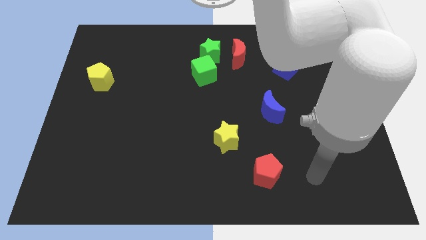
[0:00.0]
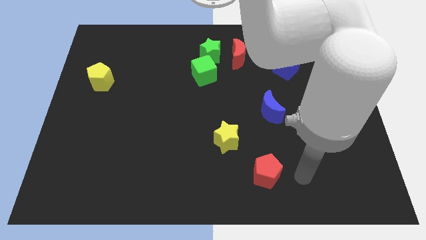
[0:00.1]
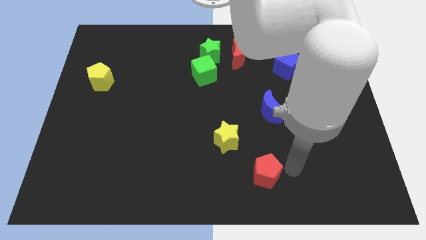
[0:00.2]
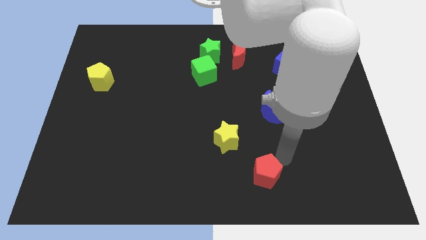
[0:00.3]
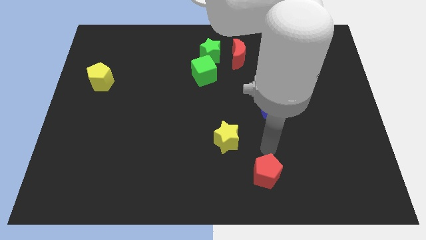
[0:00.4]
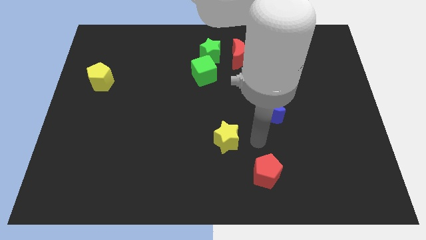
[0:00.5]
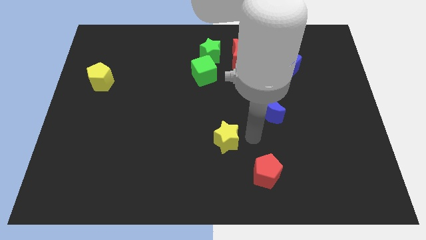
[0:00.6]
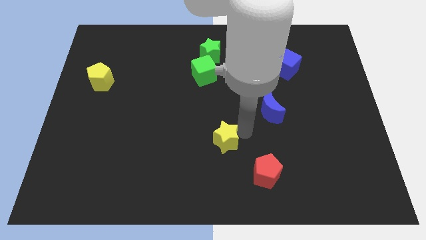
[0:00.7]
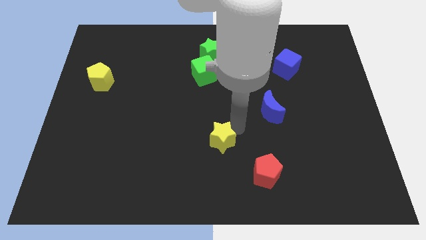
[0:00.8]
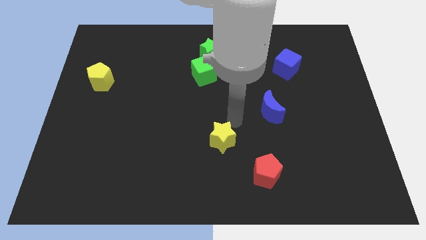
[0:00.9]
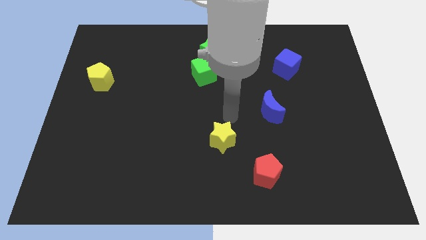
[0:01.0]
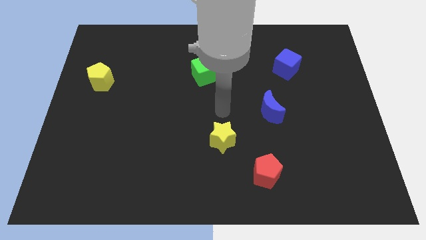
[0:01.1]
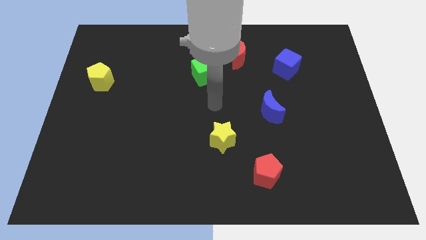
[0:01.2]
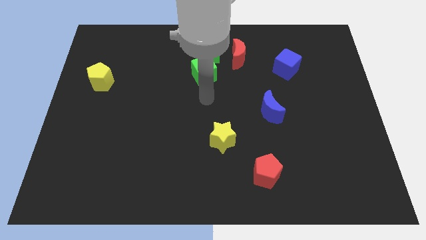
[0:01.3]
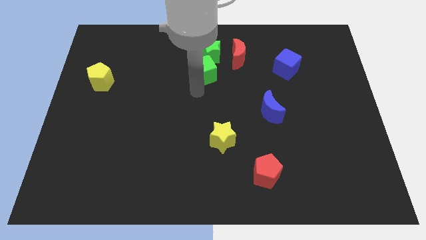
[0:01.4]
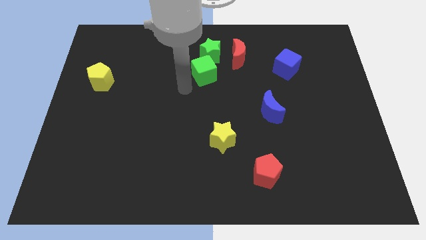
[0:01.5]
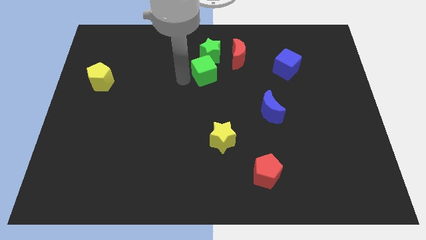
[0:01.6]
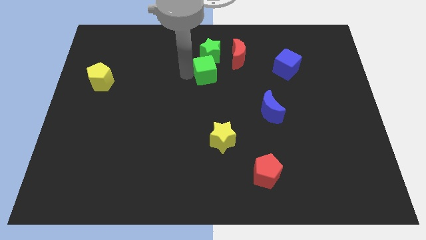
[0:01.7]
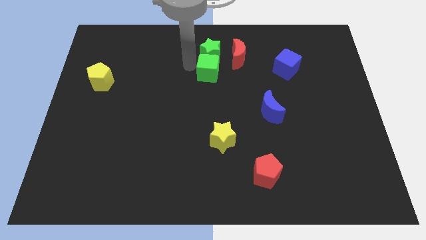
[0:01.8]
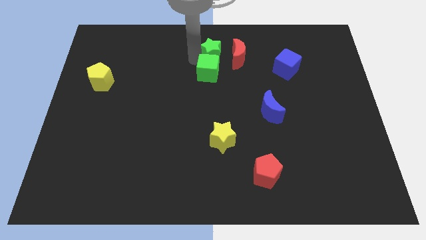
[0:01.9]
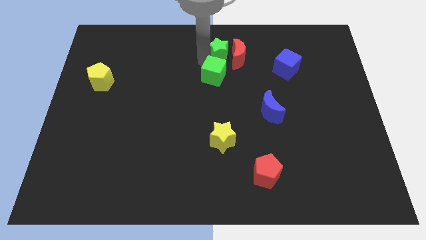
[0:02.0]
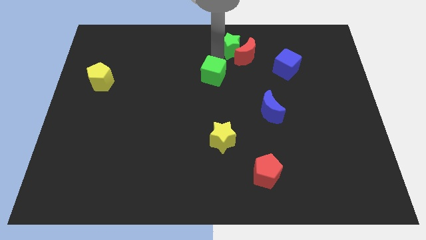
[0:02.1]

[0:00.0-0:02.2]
move the green cube away from the green star

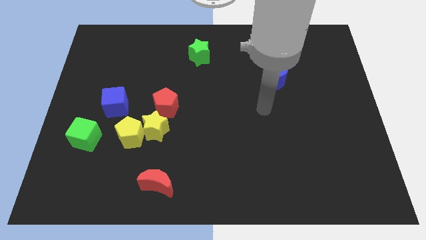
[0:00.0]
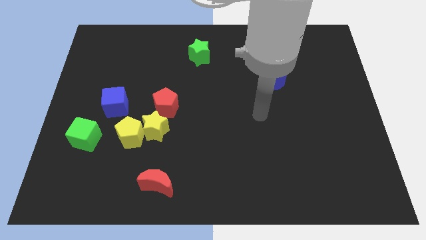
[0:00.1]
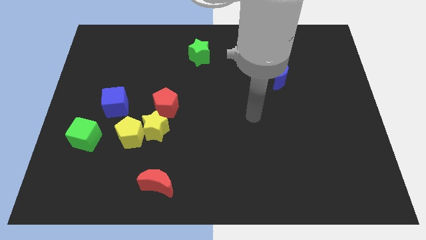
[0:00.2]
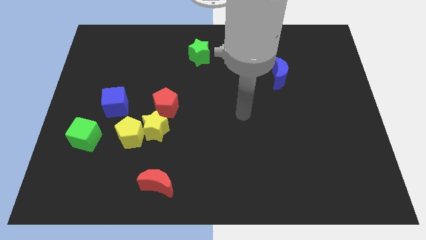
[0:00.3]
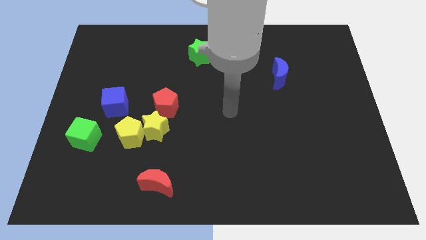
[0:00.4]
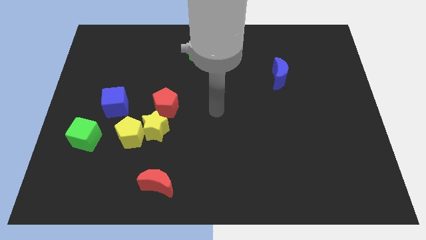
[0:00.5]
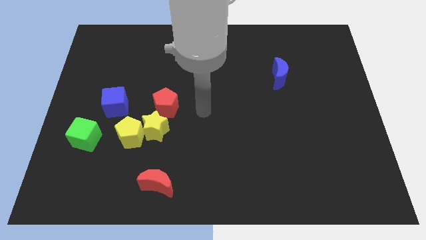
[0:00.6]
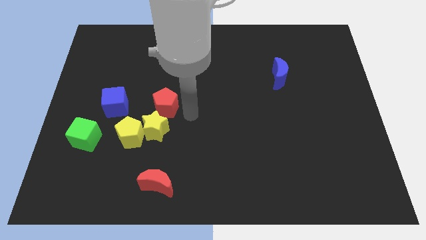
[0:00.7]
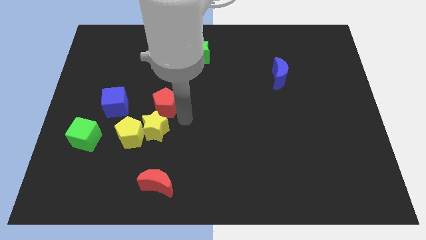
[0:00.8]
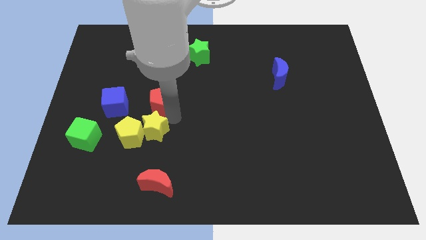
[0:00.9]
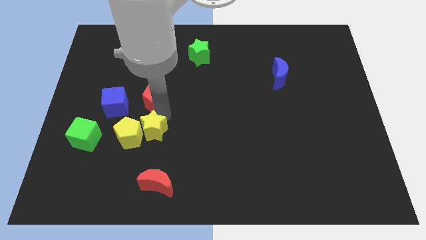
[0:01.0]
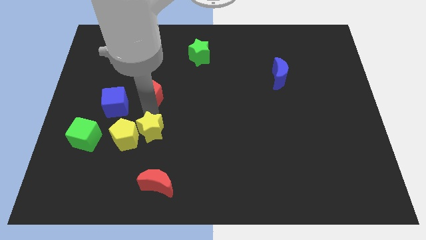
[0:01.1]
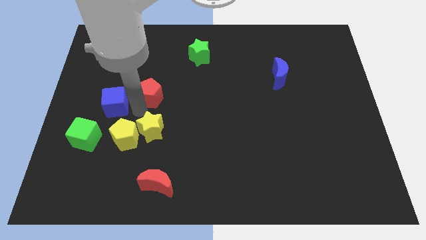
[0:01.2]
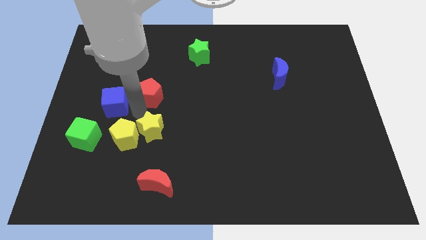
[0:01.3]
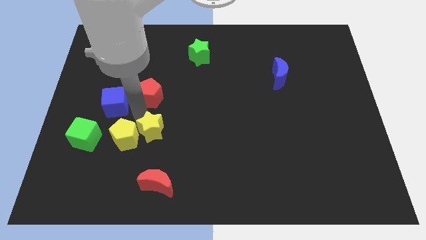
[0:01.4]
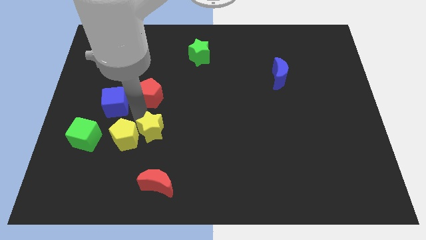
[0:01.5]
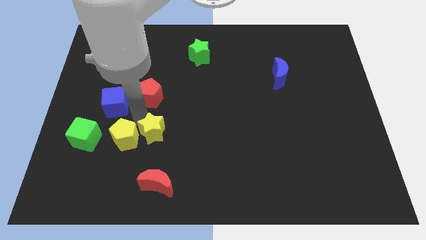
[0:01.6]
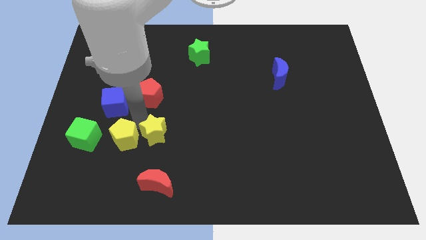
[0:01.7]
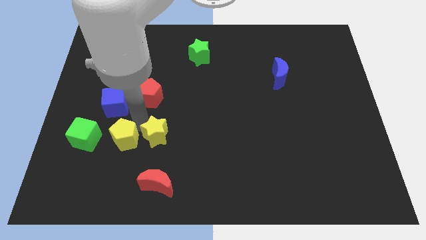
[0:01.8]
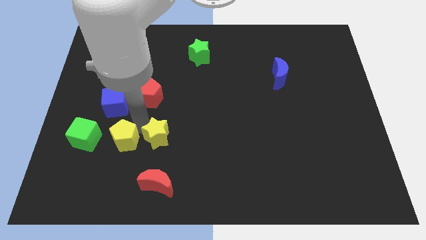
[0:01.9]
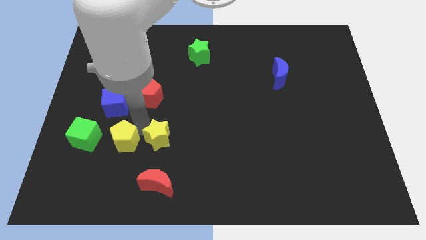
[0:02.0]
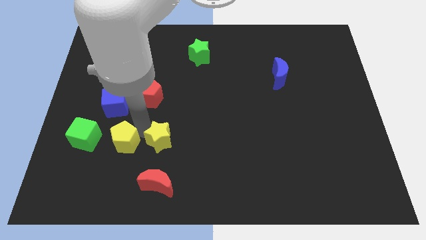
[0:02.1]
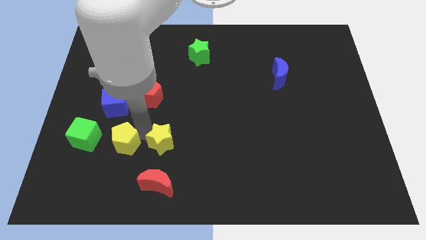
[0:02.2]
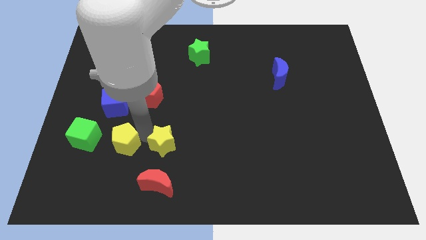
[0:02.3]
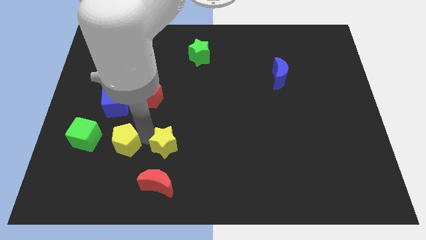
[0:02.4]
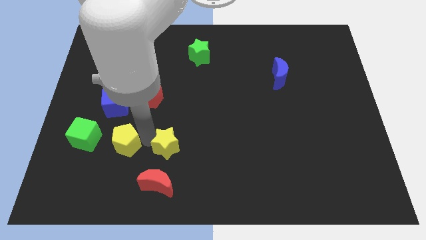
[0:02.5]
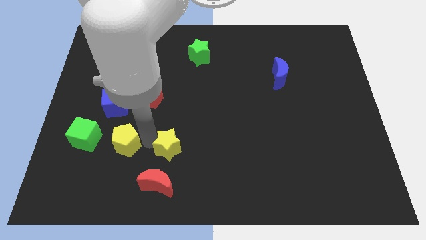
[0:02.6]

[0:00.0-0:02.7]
separate the yellow star from the yellow pentagon and red pentagon

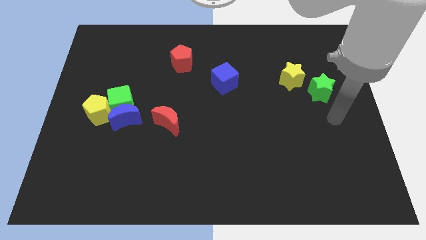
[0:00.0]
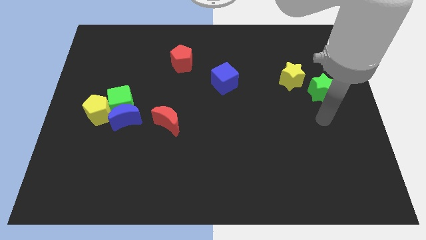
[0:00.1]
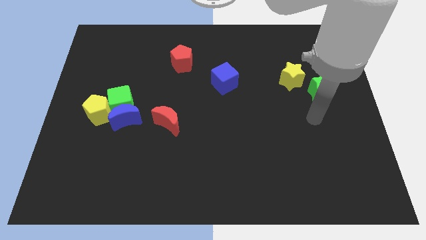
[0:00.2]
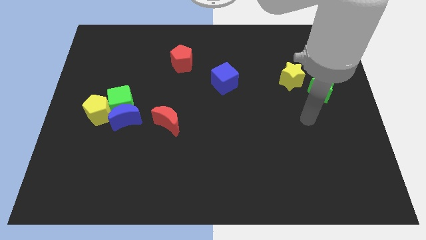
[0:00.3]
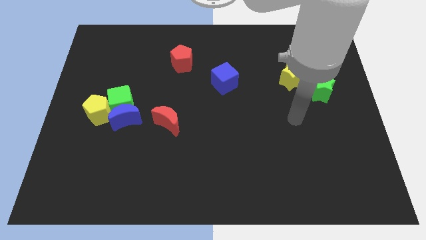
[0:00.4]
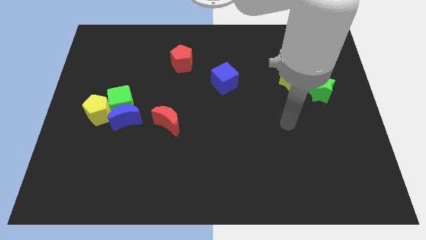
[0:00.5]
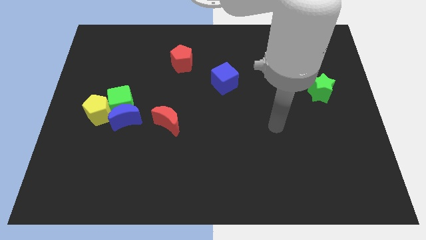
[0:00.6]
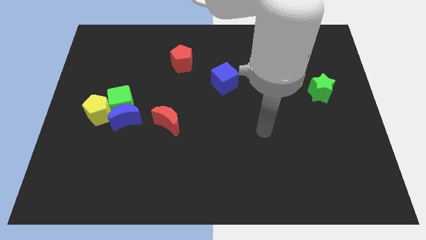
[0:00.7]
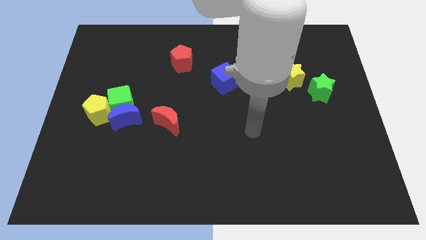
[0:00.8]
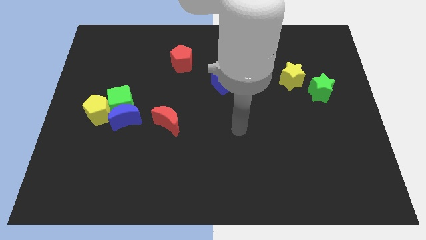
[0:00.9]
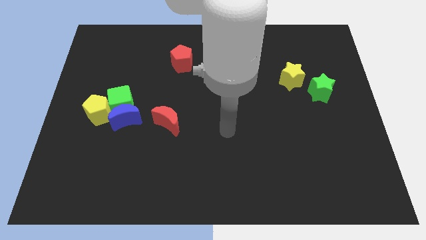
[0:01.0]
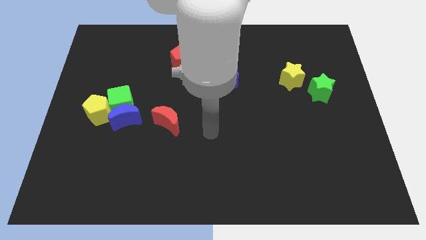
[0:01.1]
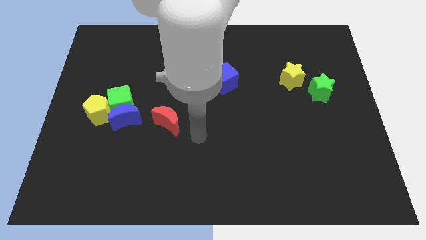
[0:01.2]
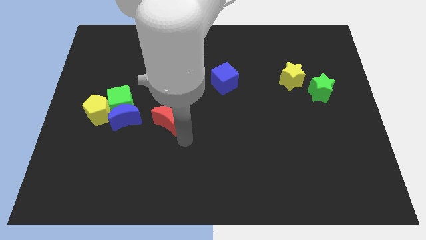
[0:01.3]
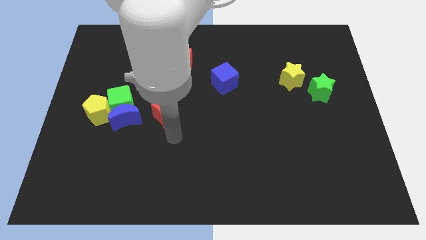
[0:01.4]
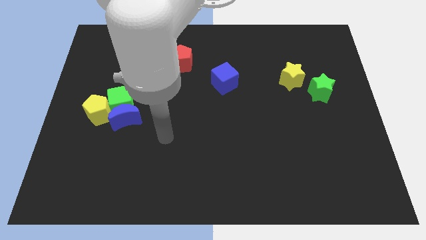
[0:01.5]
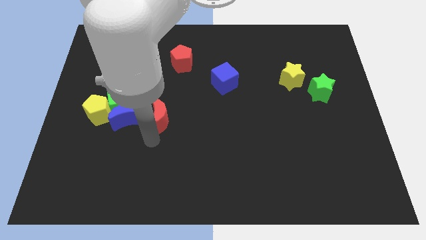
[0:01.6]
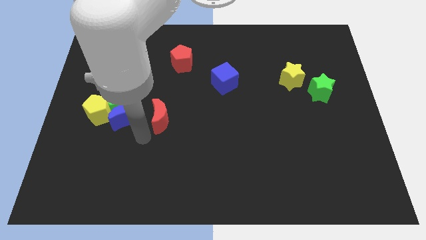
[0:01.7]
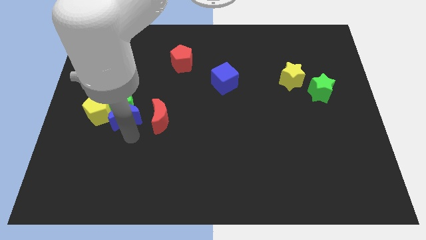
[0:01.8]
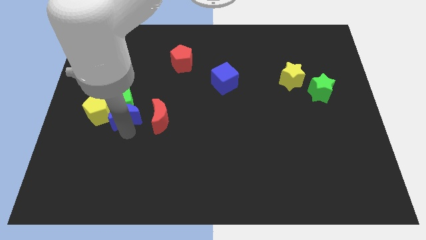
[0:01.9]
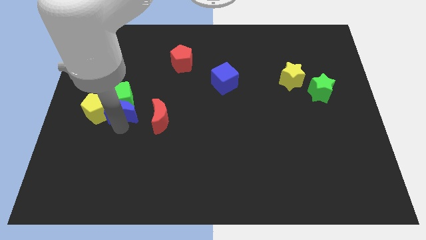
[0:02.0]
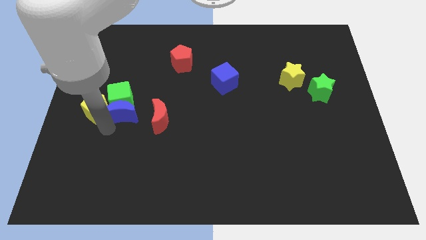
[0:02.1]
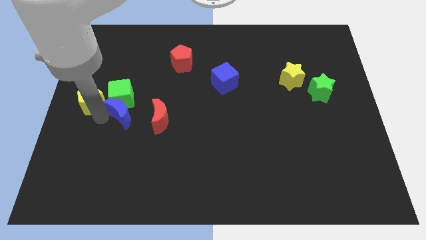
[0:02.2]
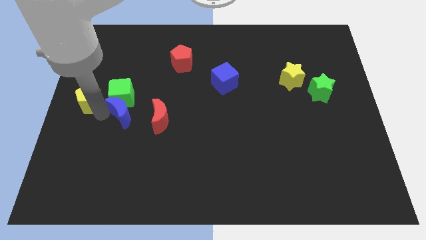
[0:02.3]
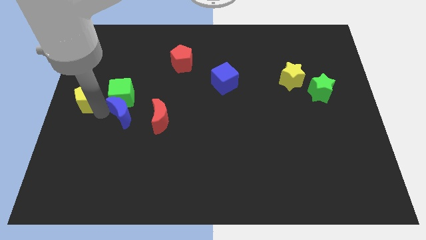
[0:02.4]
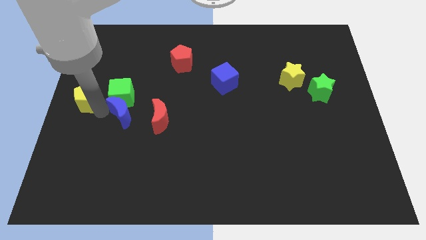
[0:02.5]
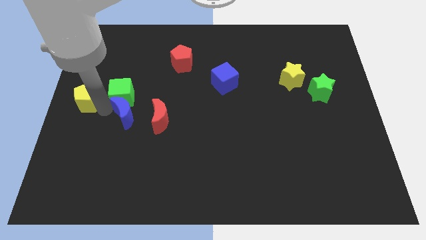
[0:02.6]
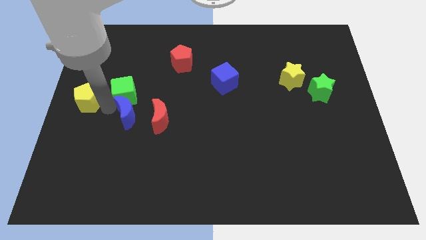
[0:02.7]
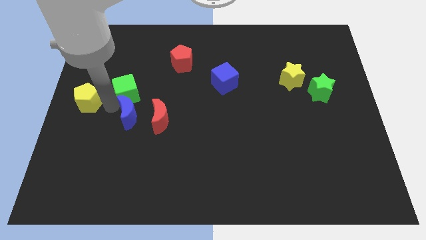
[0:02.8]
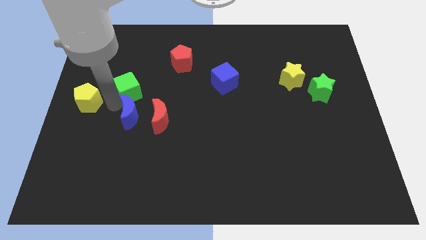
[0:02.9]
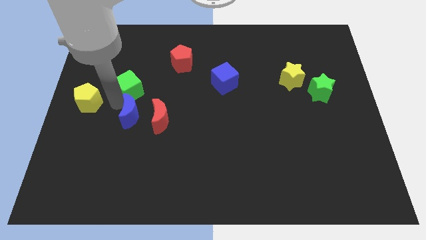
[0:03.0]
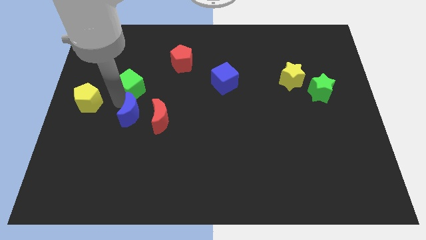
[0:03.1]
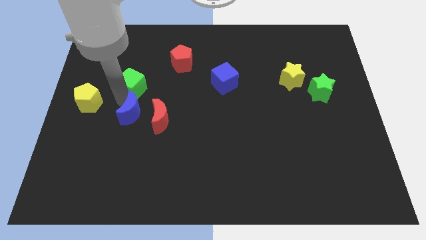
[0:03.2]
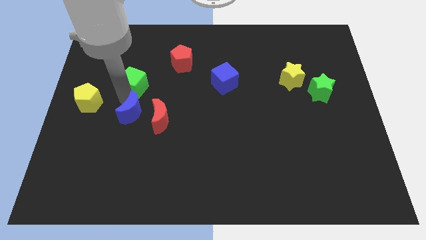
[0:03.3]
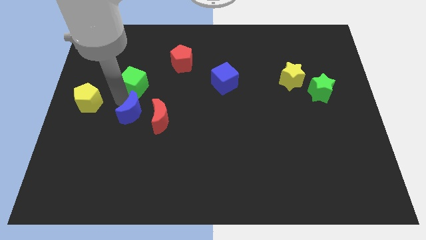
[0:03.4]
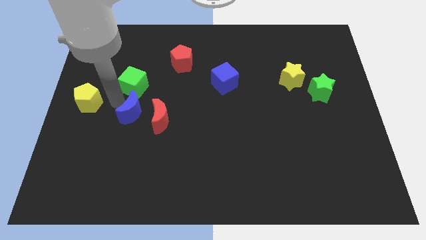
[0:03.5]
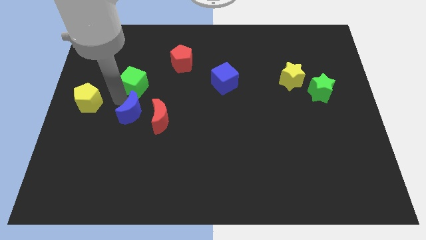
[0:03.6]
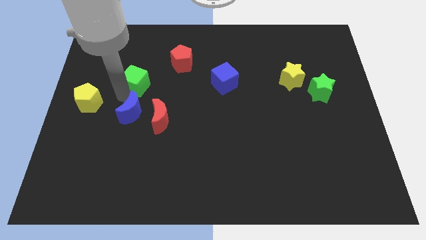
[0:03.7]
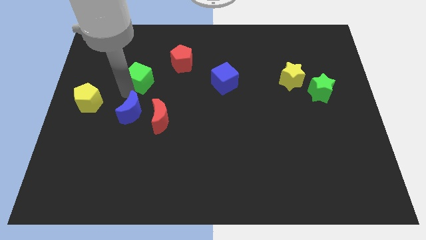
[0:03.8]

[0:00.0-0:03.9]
pull the green cube apart from the blue moon and yellow pentagon

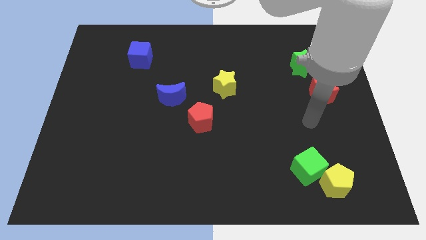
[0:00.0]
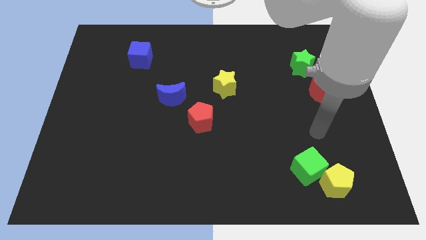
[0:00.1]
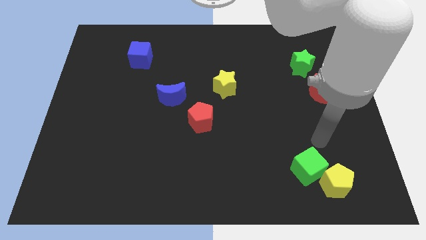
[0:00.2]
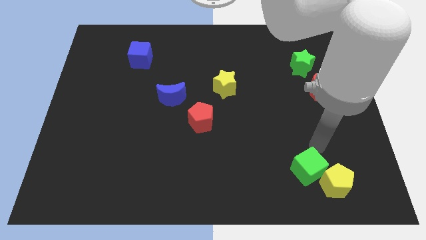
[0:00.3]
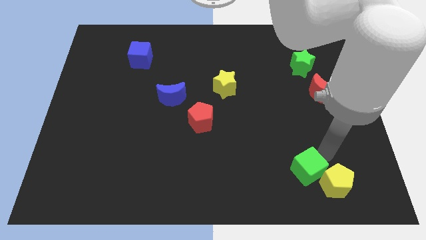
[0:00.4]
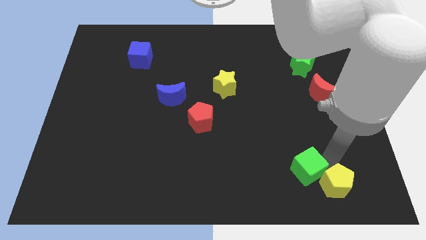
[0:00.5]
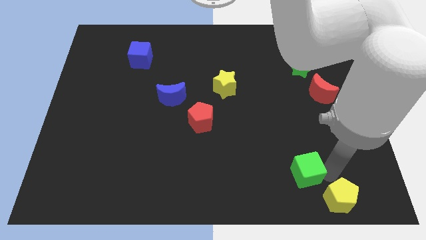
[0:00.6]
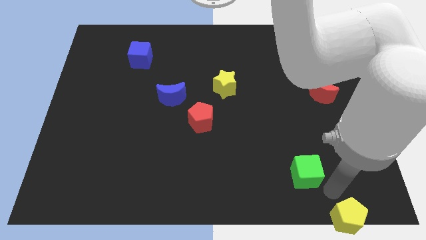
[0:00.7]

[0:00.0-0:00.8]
pull the green cube apart from the yellow pentagon
